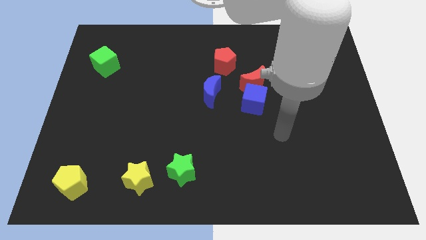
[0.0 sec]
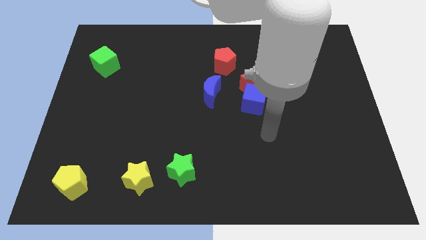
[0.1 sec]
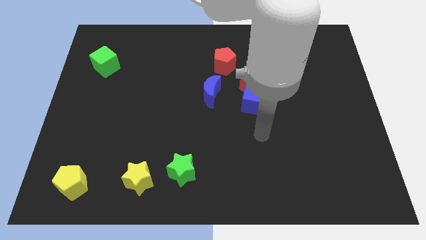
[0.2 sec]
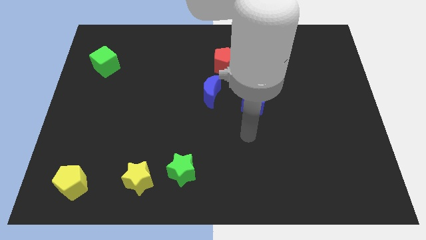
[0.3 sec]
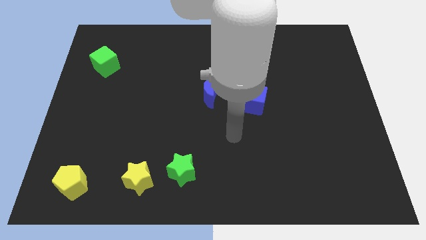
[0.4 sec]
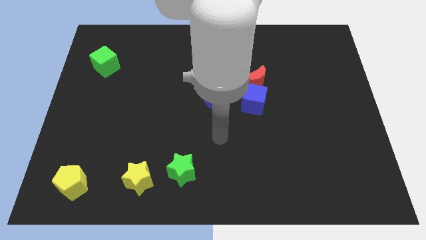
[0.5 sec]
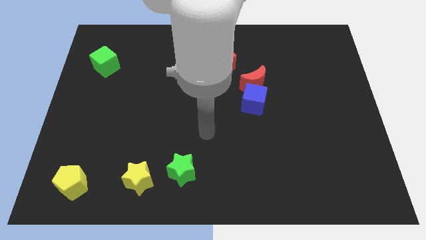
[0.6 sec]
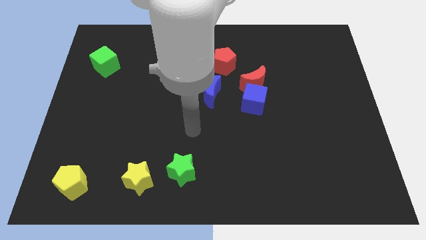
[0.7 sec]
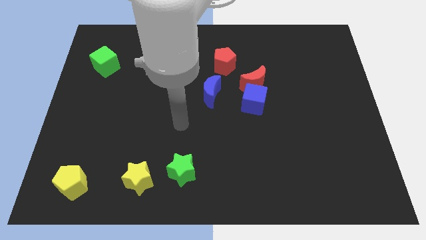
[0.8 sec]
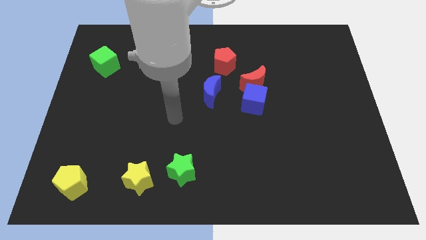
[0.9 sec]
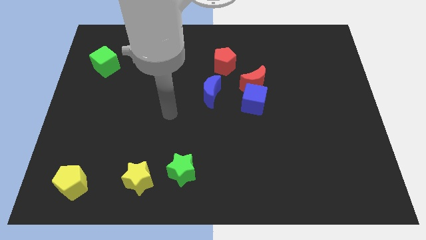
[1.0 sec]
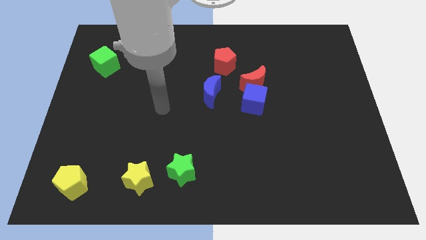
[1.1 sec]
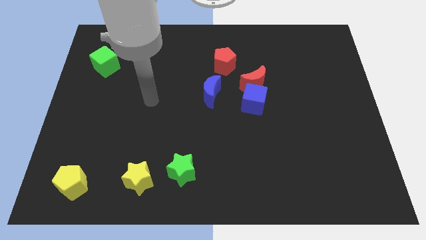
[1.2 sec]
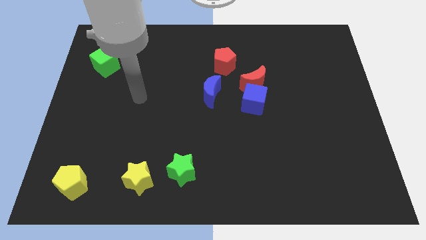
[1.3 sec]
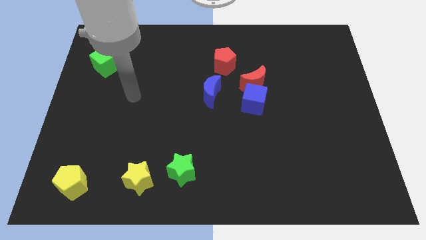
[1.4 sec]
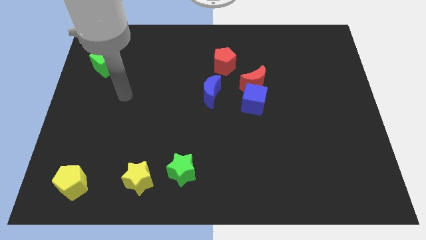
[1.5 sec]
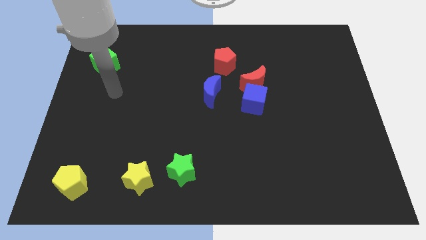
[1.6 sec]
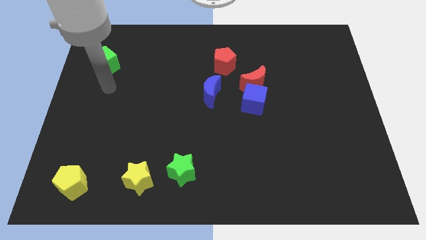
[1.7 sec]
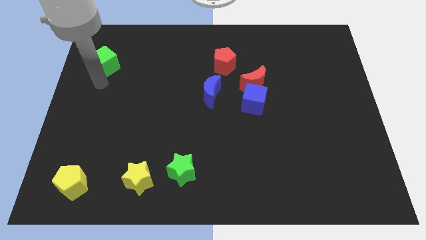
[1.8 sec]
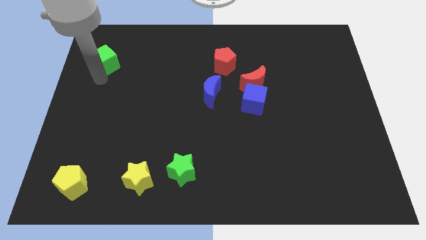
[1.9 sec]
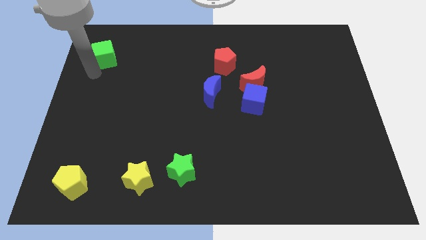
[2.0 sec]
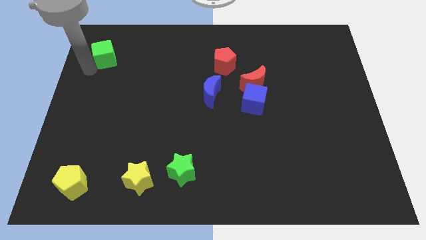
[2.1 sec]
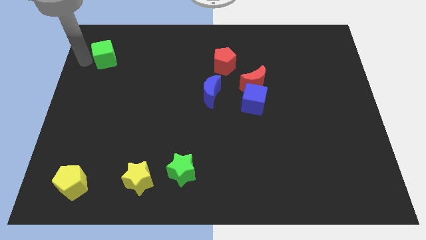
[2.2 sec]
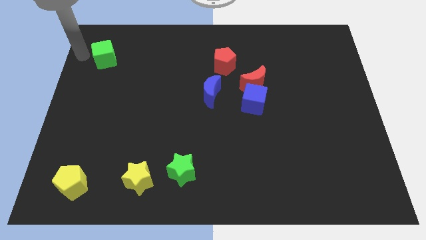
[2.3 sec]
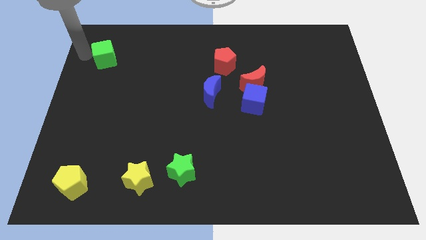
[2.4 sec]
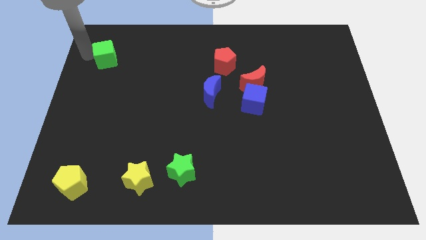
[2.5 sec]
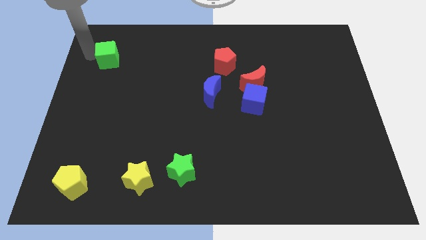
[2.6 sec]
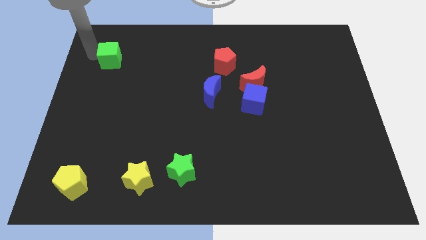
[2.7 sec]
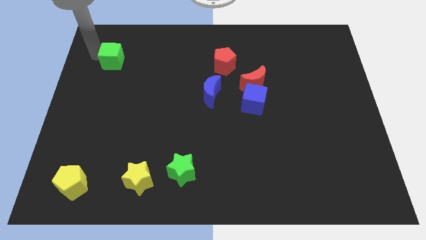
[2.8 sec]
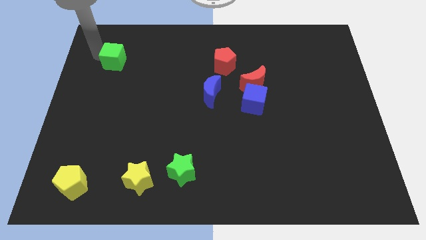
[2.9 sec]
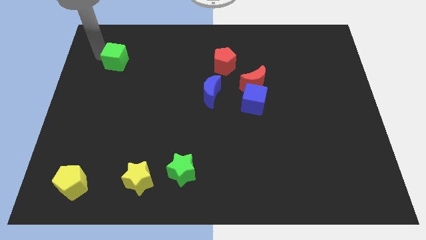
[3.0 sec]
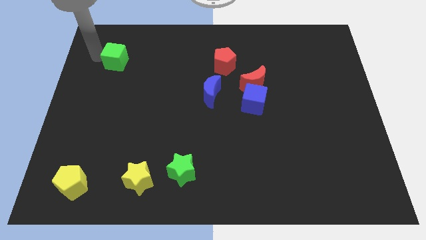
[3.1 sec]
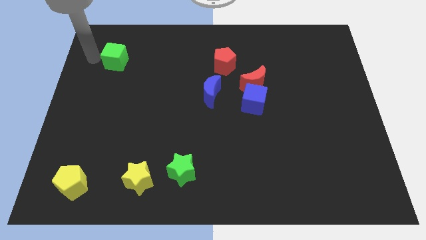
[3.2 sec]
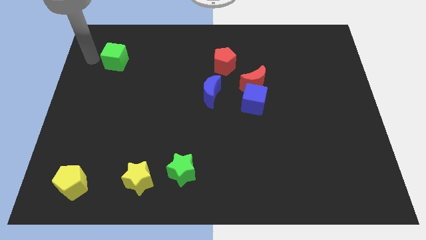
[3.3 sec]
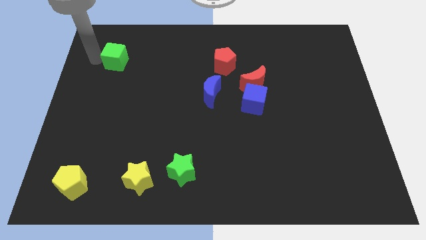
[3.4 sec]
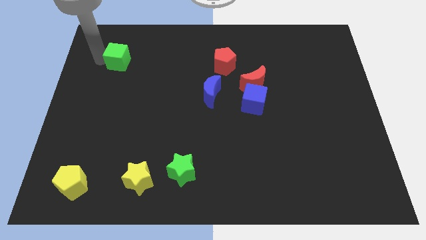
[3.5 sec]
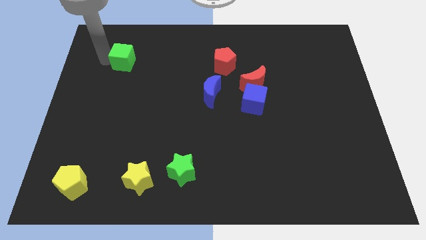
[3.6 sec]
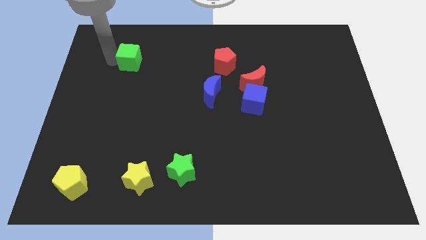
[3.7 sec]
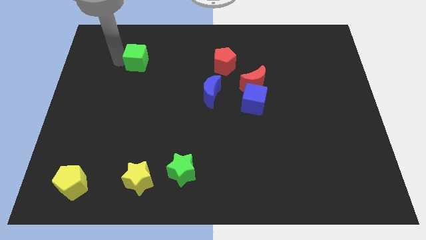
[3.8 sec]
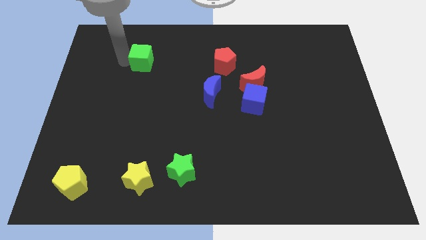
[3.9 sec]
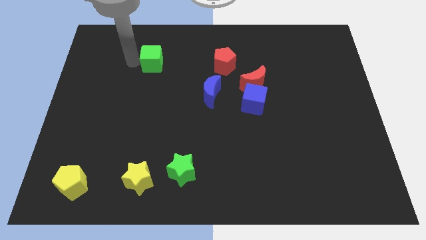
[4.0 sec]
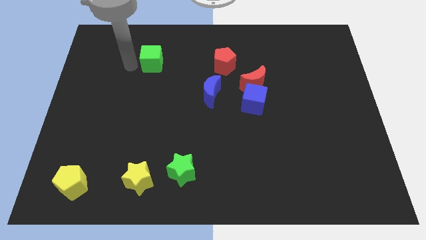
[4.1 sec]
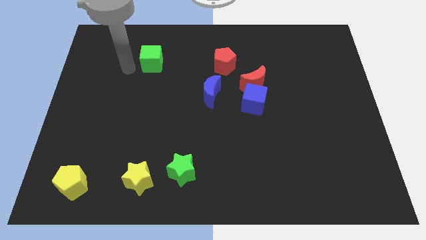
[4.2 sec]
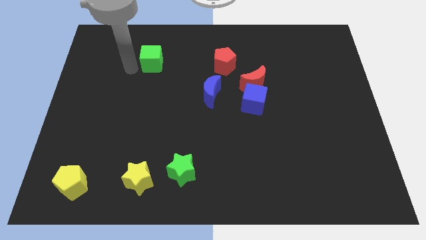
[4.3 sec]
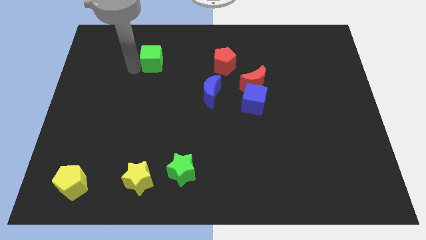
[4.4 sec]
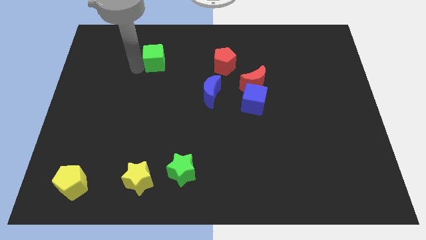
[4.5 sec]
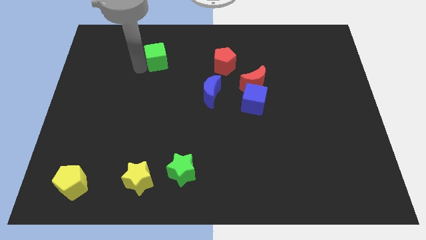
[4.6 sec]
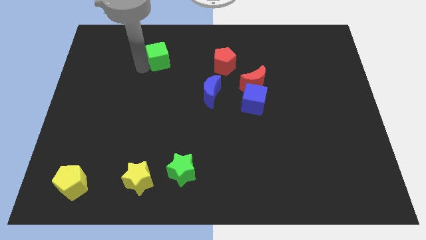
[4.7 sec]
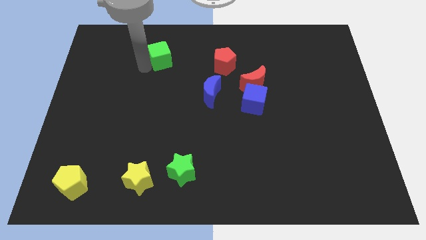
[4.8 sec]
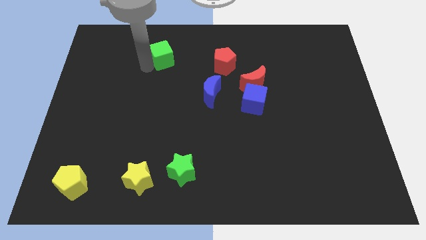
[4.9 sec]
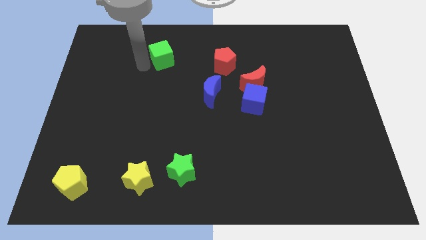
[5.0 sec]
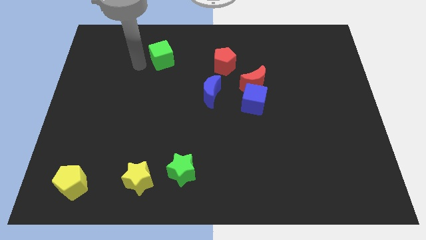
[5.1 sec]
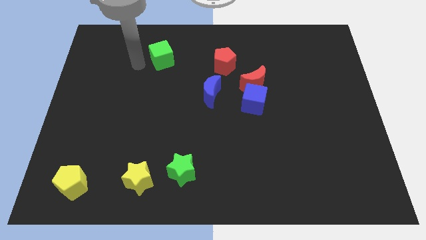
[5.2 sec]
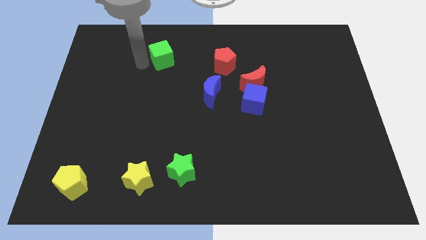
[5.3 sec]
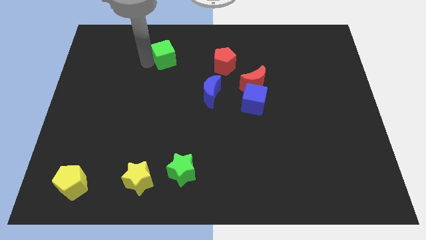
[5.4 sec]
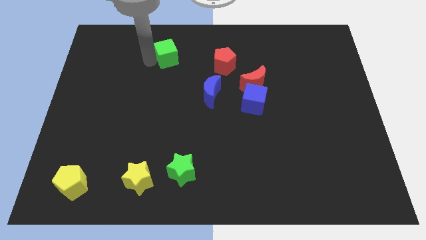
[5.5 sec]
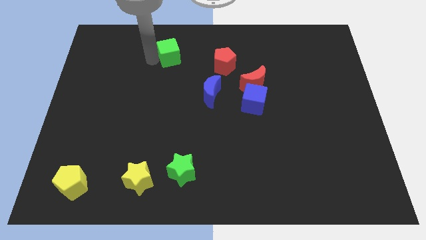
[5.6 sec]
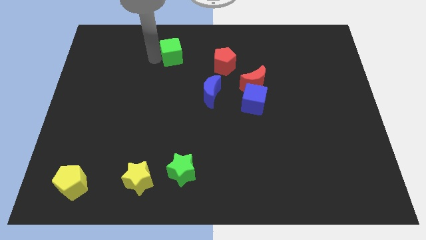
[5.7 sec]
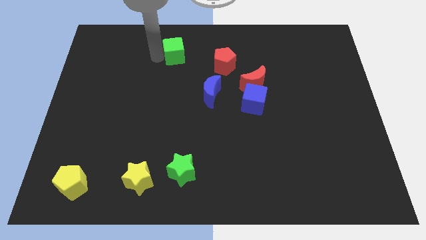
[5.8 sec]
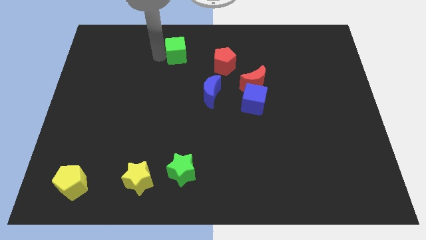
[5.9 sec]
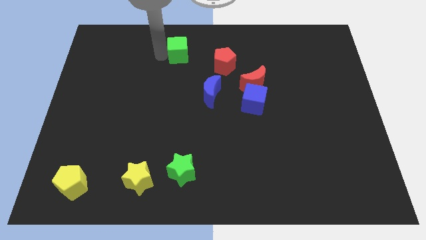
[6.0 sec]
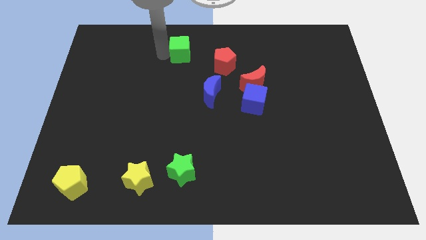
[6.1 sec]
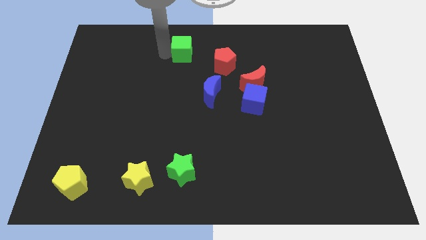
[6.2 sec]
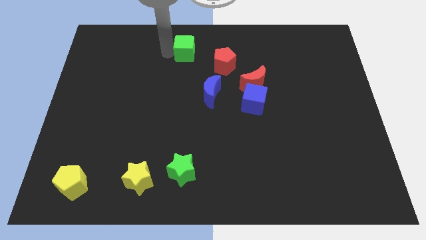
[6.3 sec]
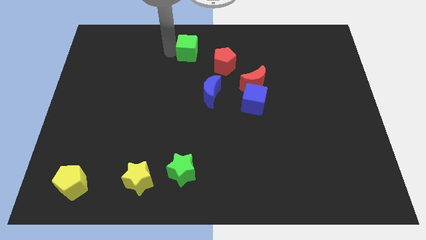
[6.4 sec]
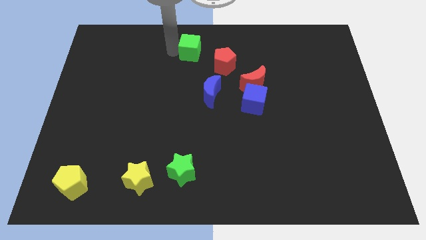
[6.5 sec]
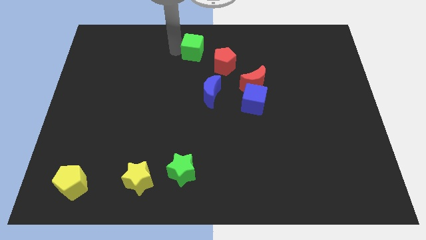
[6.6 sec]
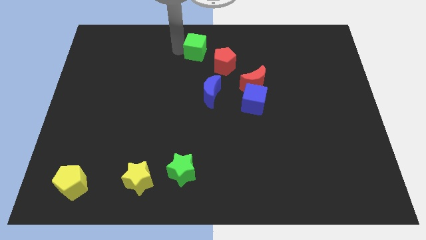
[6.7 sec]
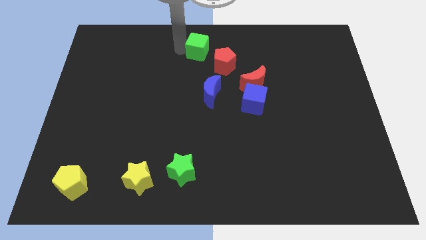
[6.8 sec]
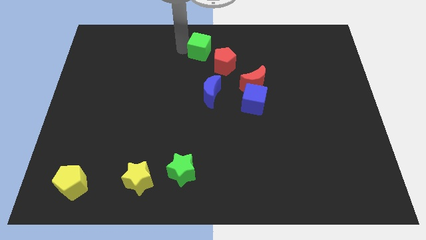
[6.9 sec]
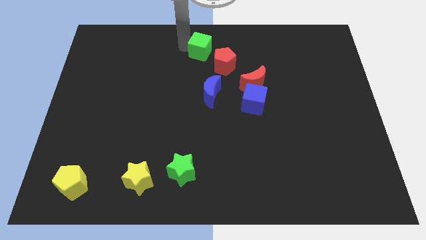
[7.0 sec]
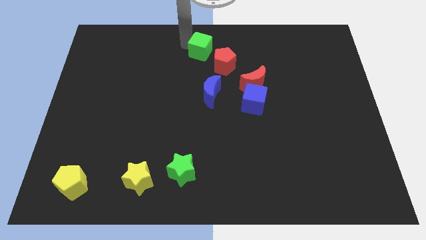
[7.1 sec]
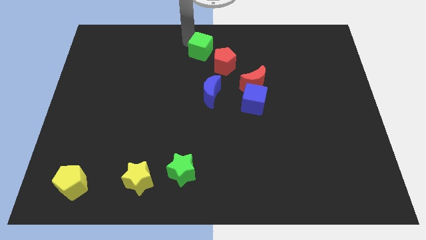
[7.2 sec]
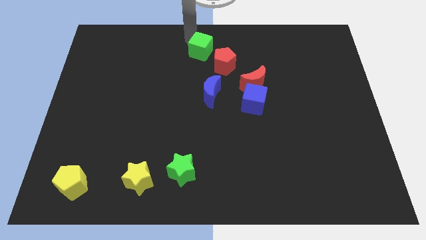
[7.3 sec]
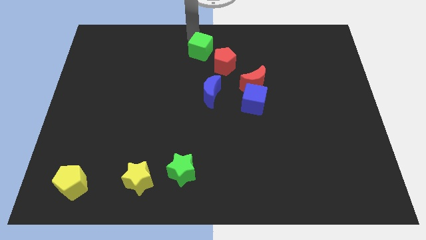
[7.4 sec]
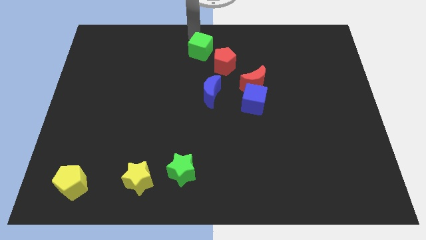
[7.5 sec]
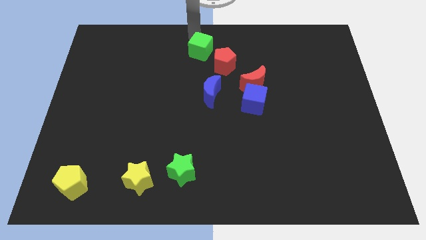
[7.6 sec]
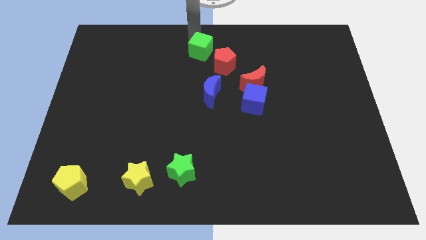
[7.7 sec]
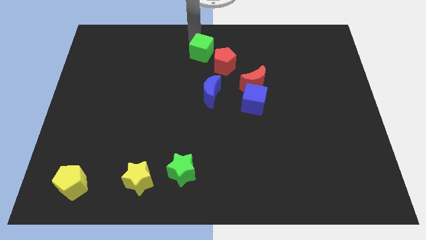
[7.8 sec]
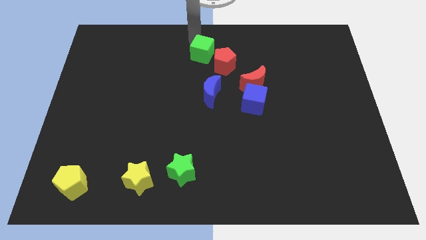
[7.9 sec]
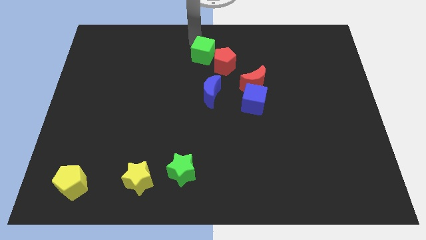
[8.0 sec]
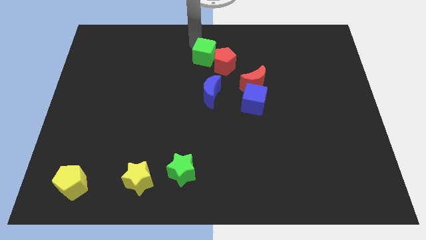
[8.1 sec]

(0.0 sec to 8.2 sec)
move the green cube next to the red pentagon
